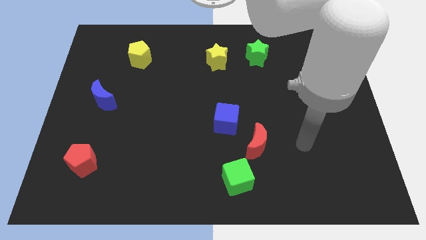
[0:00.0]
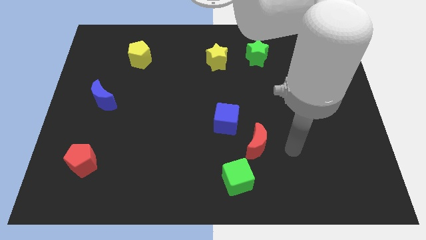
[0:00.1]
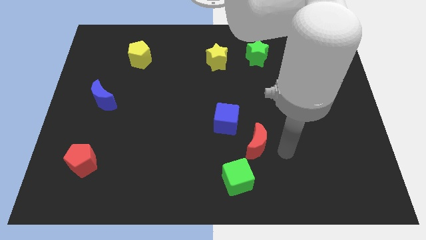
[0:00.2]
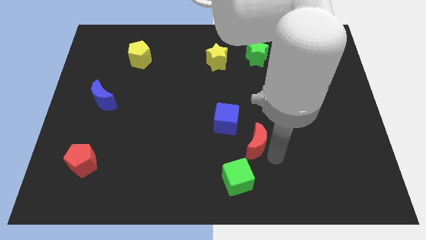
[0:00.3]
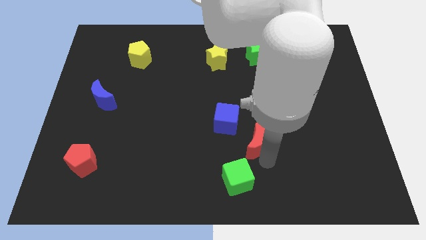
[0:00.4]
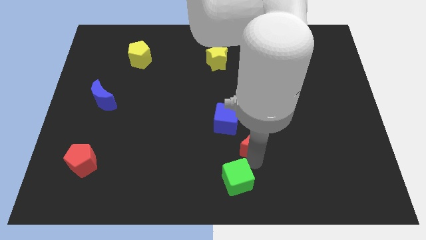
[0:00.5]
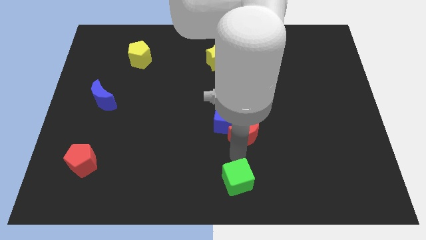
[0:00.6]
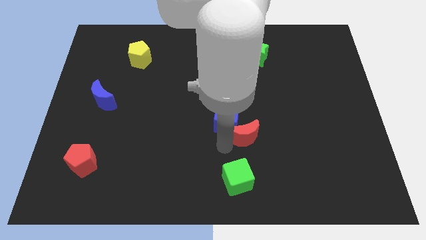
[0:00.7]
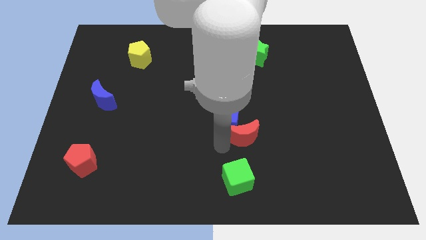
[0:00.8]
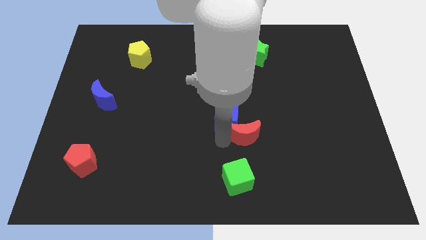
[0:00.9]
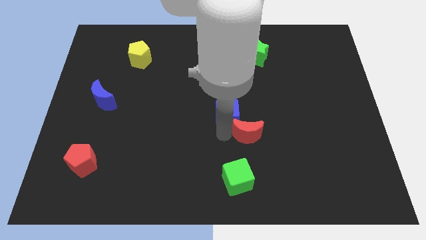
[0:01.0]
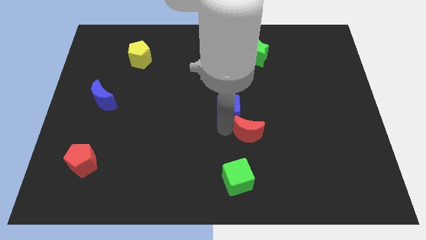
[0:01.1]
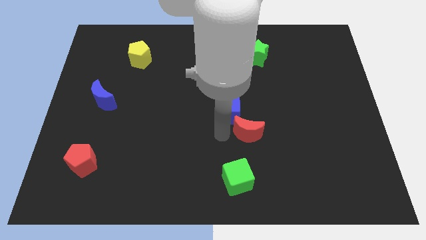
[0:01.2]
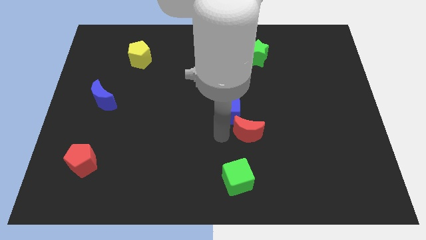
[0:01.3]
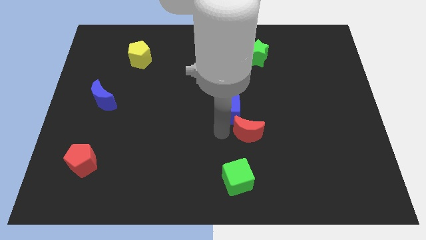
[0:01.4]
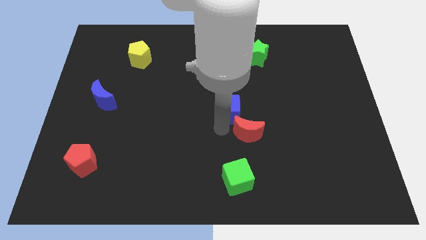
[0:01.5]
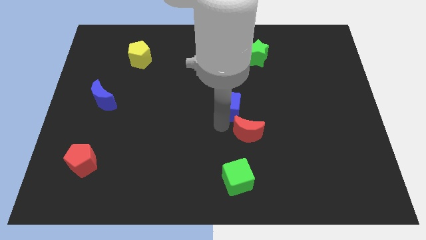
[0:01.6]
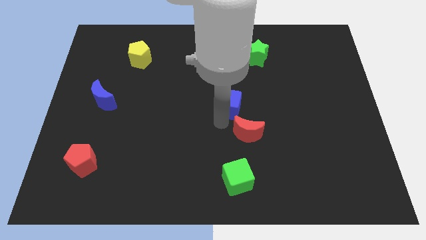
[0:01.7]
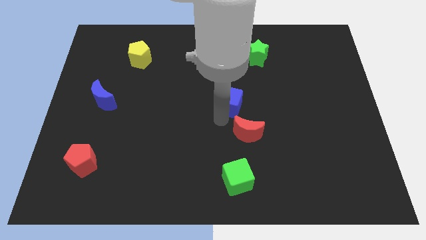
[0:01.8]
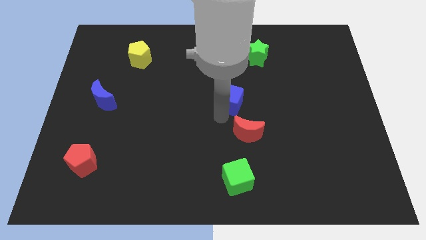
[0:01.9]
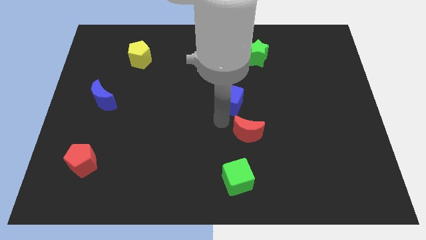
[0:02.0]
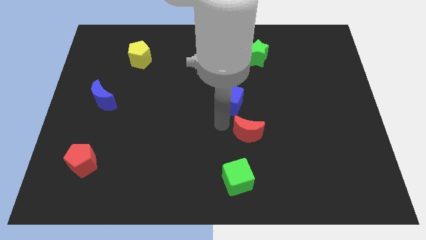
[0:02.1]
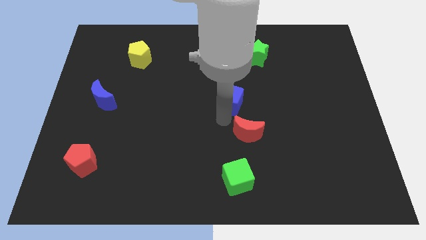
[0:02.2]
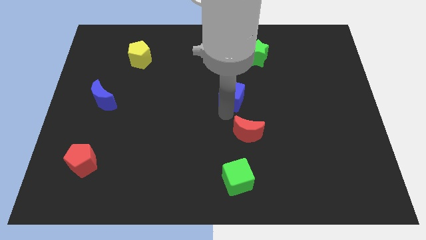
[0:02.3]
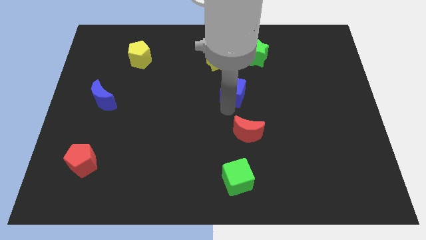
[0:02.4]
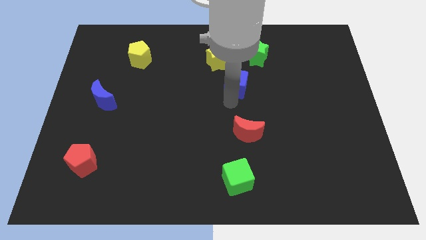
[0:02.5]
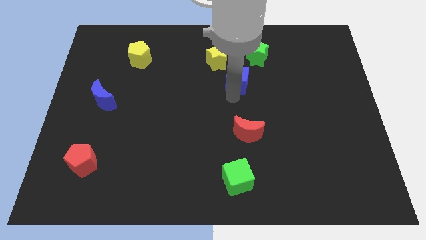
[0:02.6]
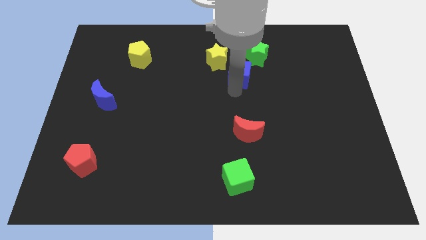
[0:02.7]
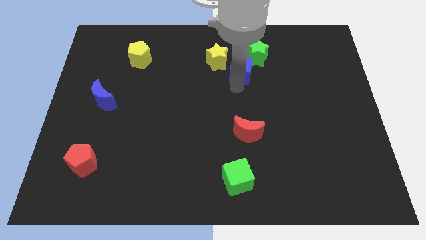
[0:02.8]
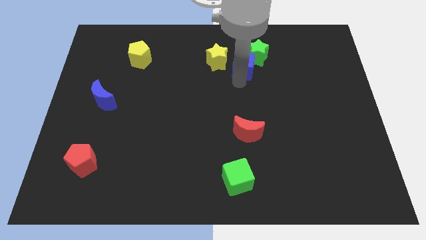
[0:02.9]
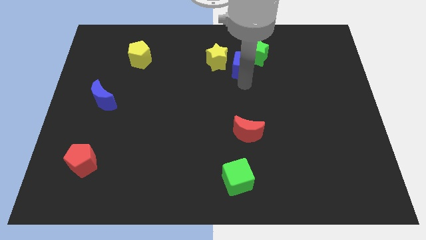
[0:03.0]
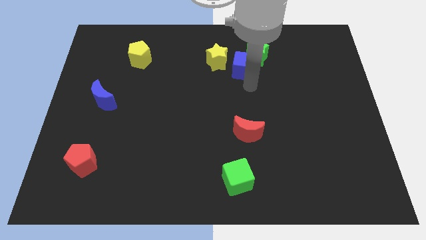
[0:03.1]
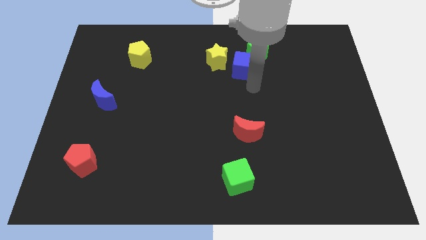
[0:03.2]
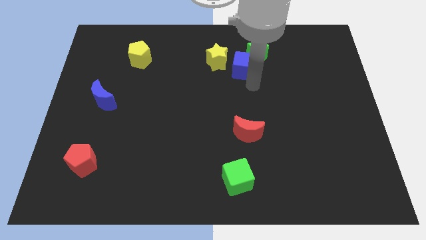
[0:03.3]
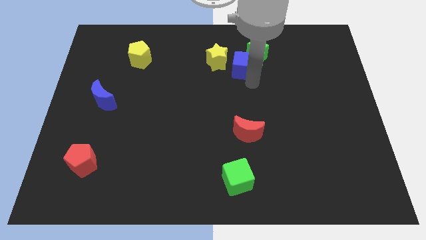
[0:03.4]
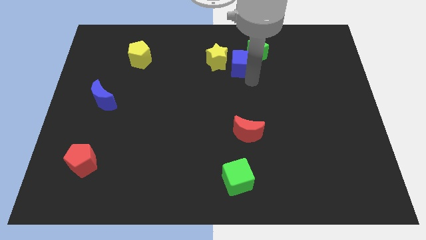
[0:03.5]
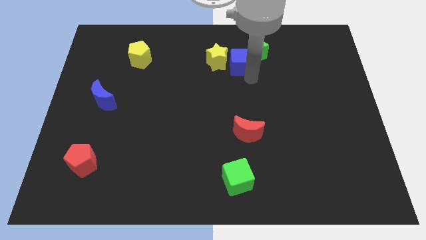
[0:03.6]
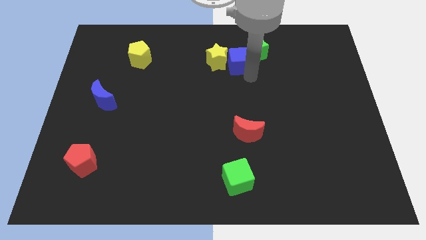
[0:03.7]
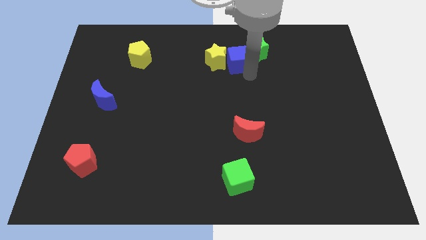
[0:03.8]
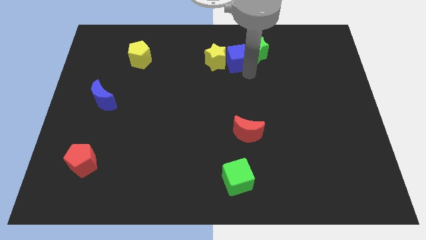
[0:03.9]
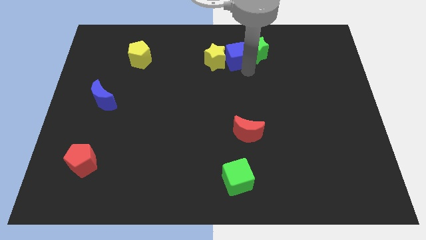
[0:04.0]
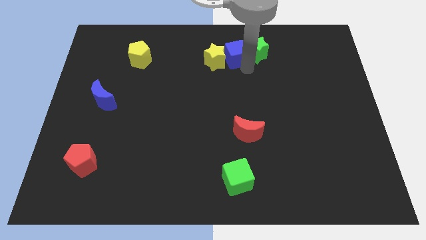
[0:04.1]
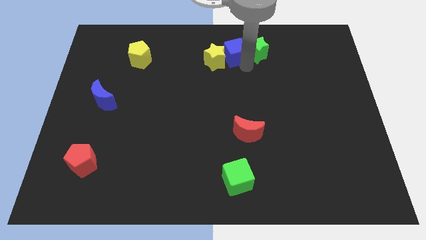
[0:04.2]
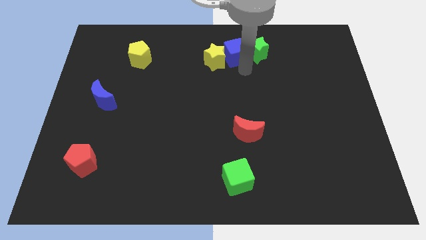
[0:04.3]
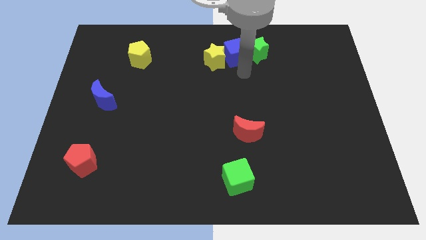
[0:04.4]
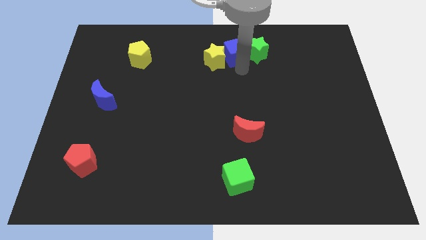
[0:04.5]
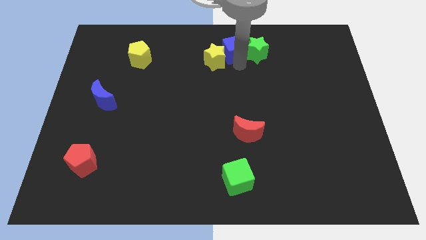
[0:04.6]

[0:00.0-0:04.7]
move the blue cube to the towards your base

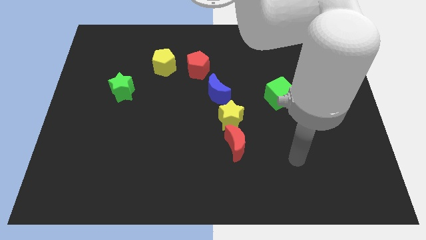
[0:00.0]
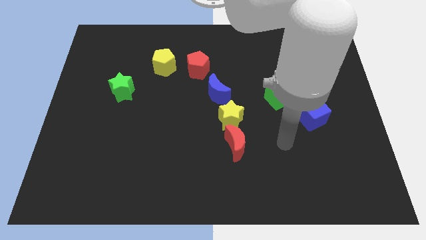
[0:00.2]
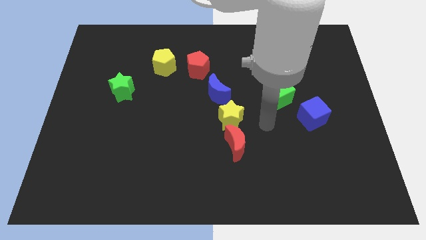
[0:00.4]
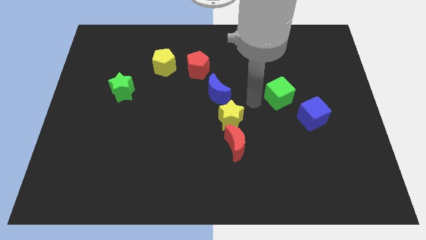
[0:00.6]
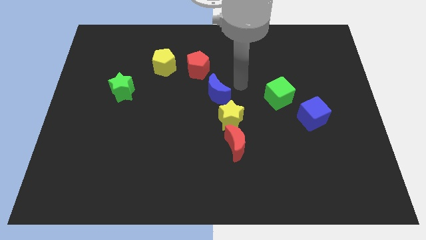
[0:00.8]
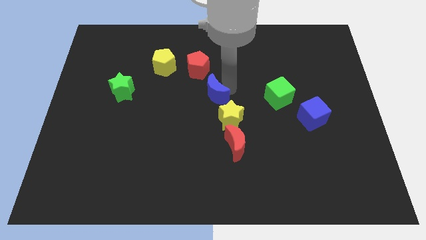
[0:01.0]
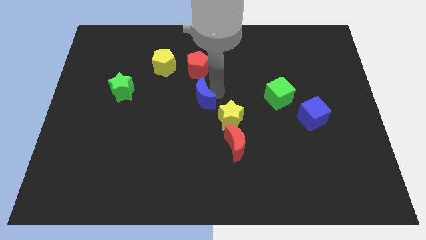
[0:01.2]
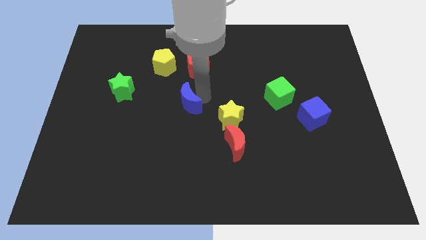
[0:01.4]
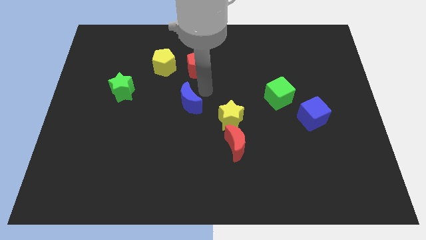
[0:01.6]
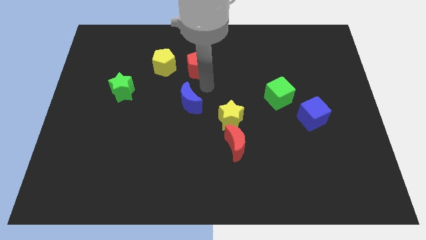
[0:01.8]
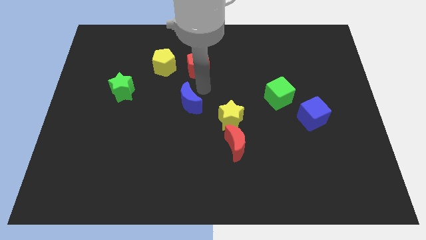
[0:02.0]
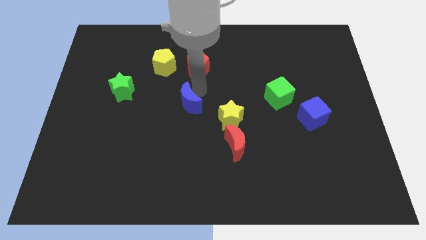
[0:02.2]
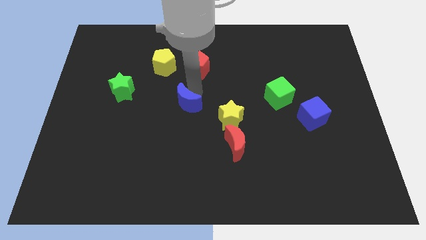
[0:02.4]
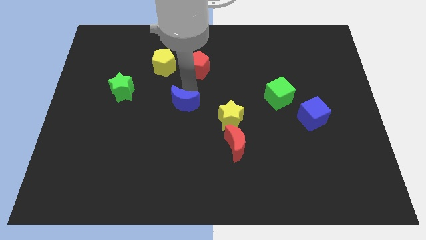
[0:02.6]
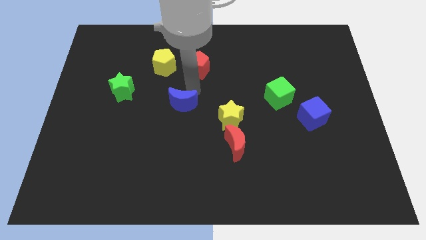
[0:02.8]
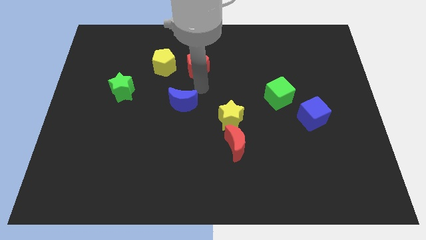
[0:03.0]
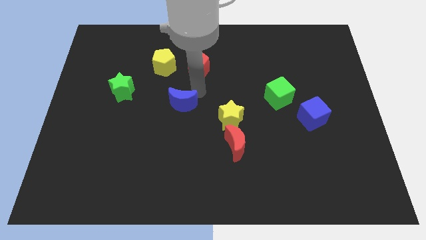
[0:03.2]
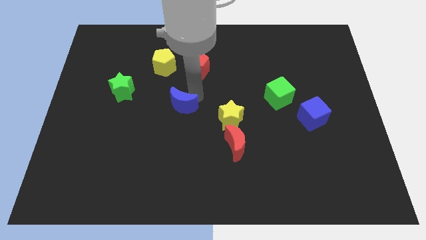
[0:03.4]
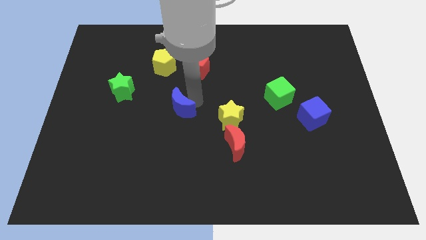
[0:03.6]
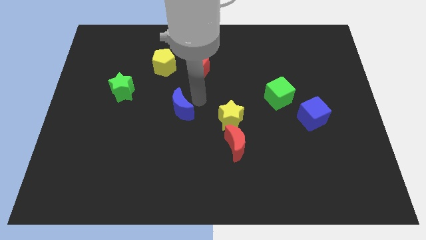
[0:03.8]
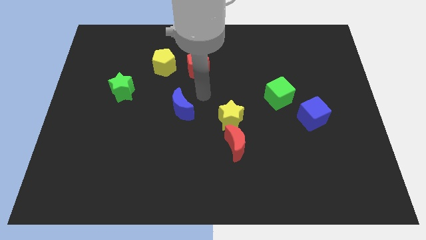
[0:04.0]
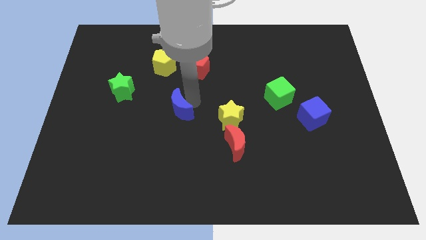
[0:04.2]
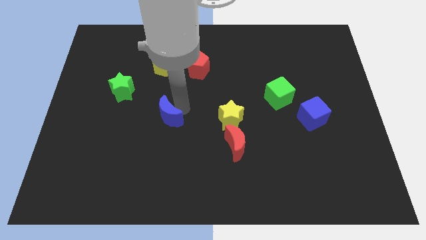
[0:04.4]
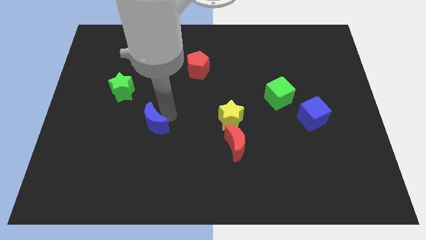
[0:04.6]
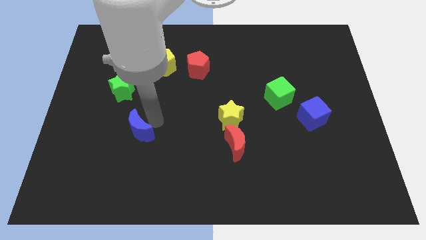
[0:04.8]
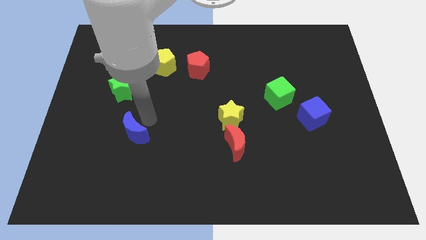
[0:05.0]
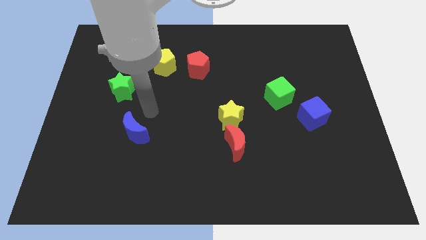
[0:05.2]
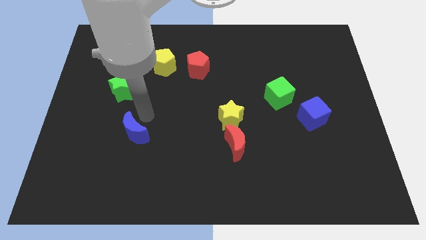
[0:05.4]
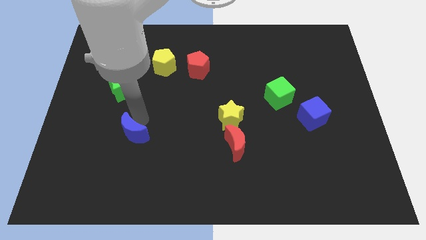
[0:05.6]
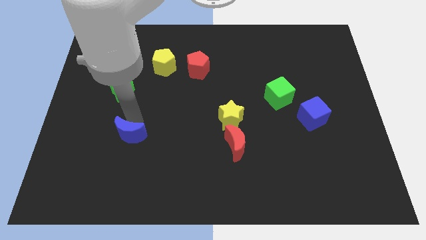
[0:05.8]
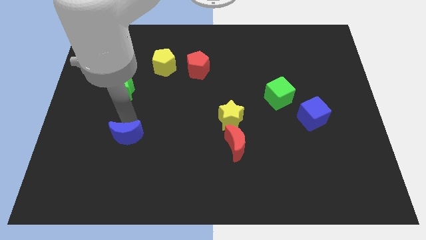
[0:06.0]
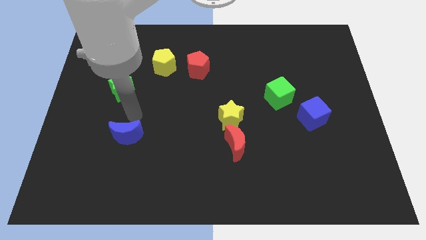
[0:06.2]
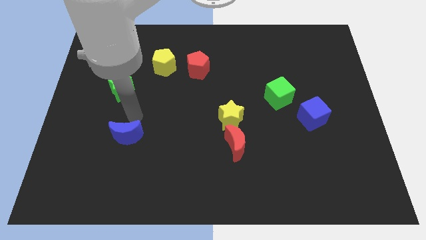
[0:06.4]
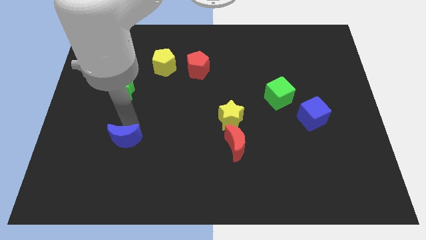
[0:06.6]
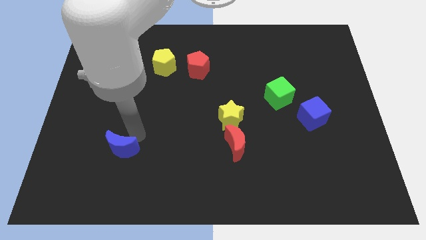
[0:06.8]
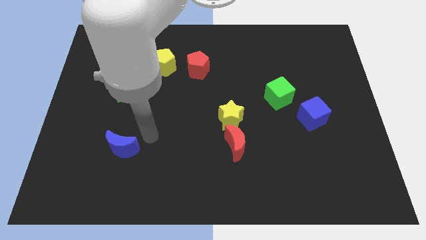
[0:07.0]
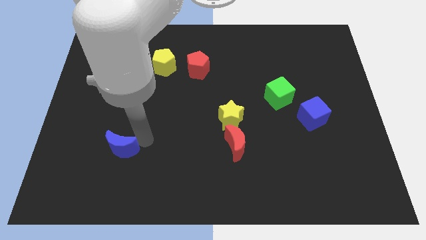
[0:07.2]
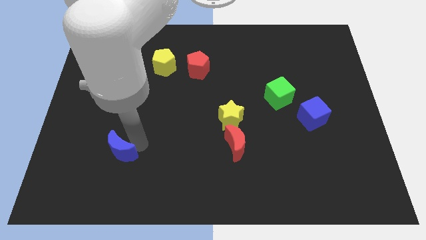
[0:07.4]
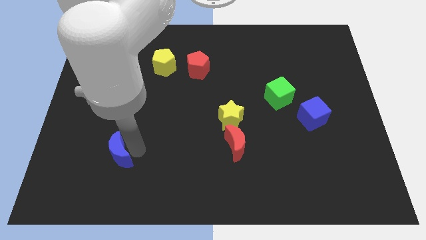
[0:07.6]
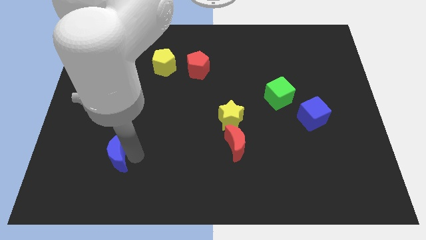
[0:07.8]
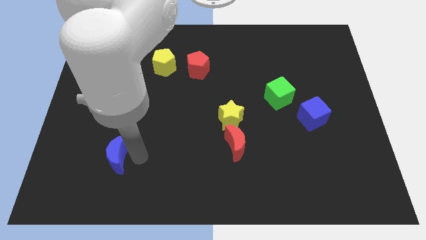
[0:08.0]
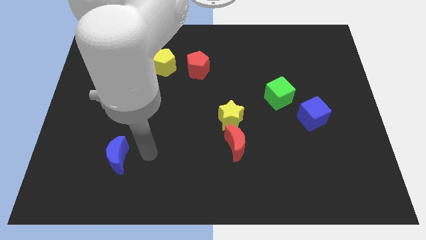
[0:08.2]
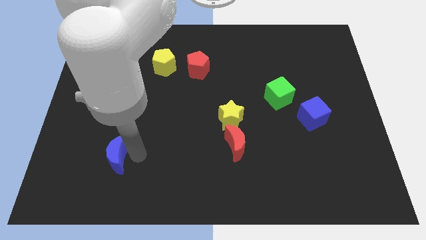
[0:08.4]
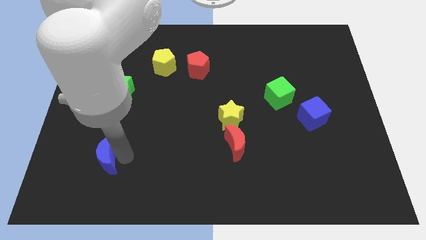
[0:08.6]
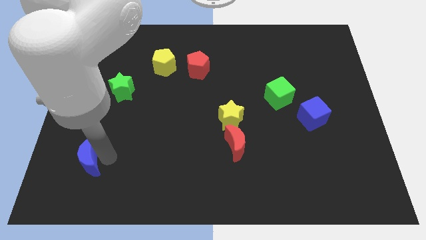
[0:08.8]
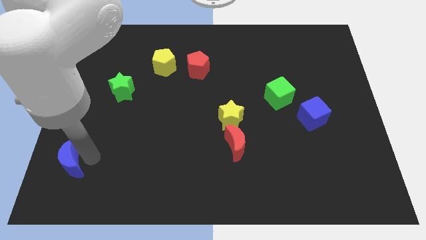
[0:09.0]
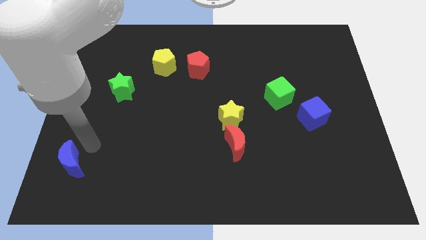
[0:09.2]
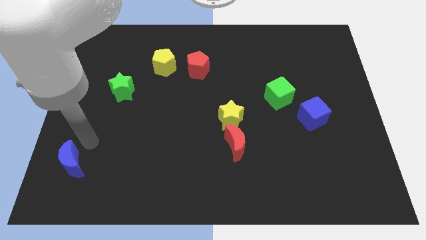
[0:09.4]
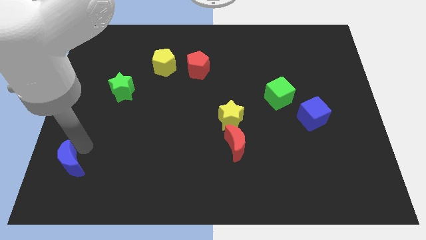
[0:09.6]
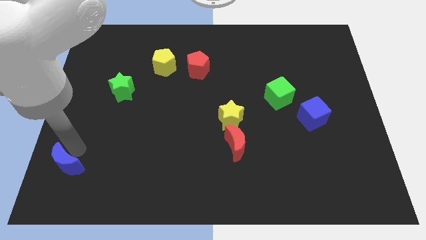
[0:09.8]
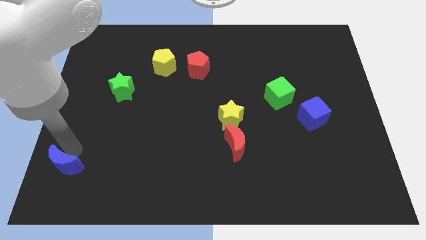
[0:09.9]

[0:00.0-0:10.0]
move the blue moon to the bottom left
